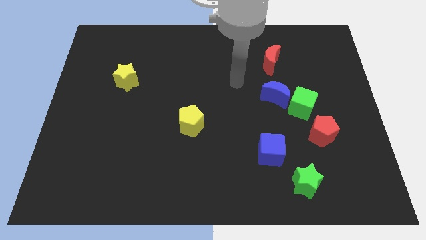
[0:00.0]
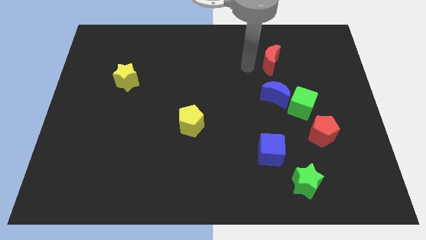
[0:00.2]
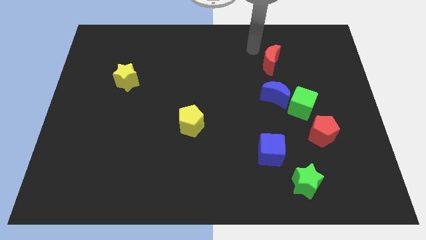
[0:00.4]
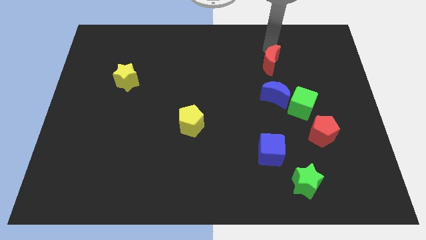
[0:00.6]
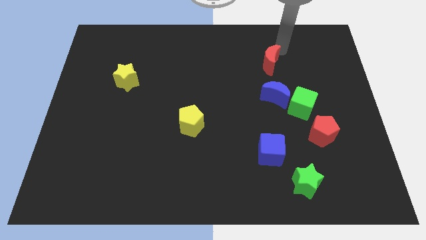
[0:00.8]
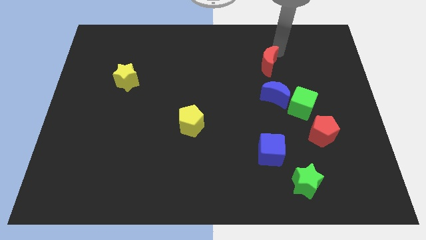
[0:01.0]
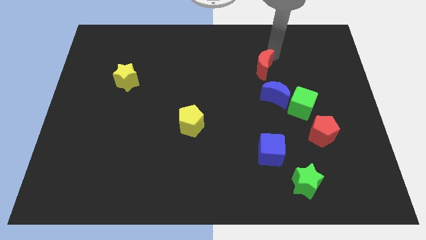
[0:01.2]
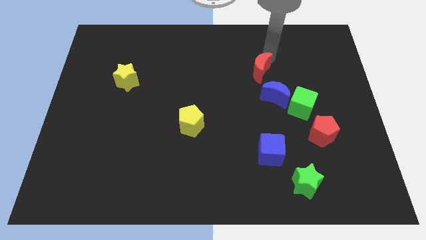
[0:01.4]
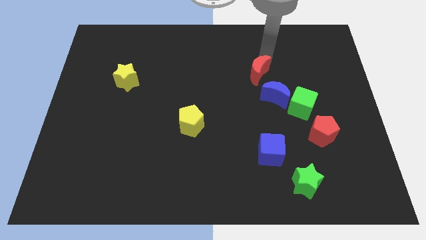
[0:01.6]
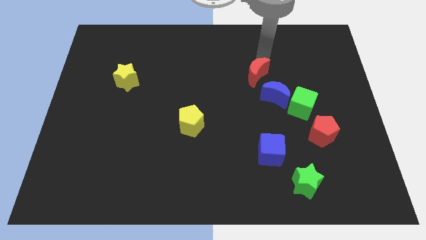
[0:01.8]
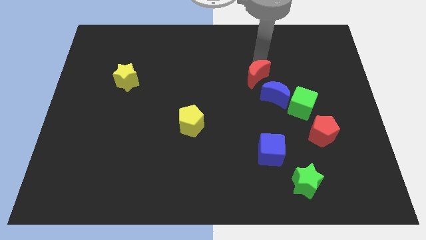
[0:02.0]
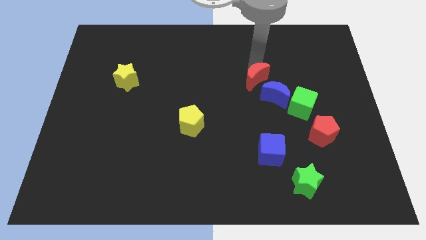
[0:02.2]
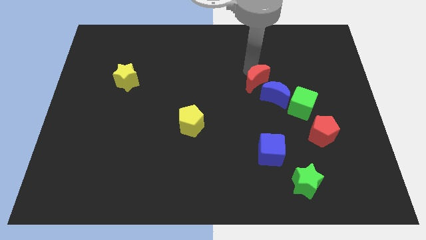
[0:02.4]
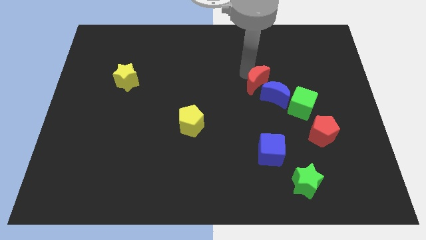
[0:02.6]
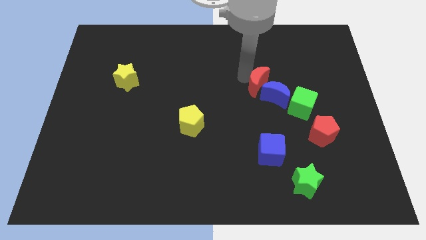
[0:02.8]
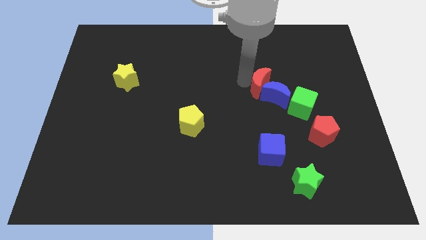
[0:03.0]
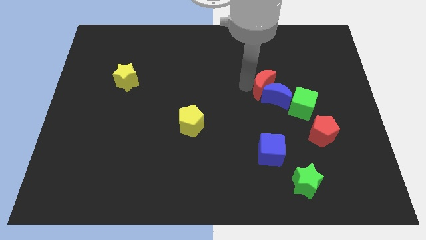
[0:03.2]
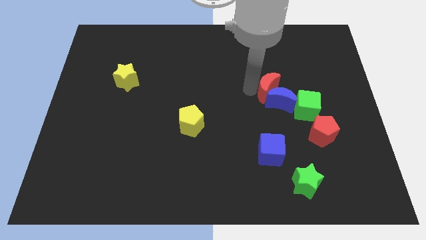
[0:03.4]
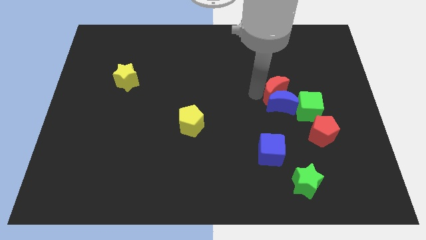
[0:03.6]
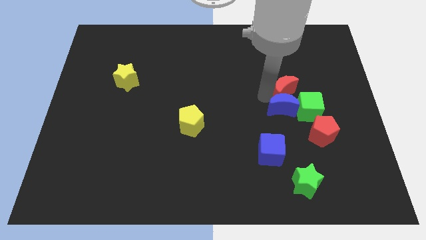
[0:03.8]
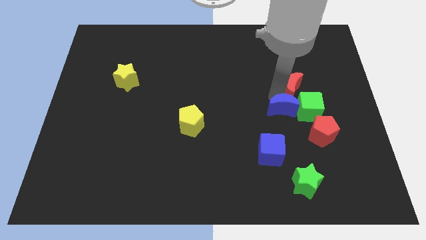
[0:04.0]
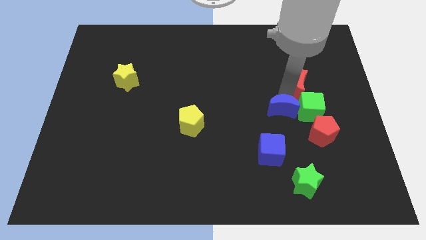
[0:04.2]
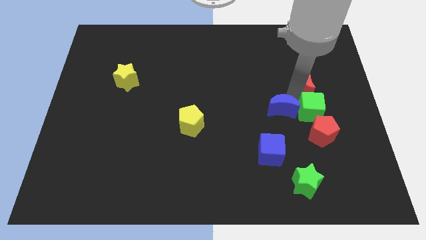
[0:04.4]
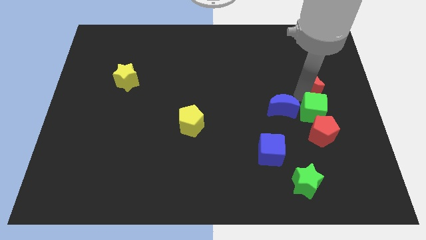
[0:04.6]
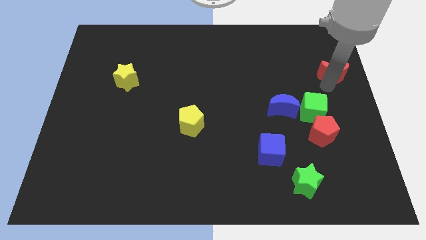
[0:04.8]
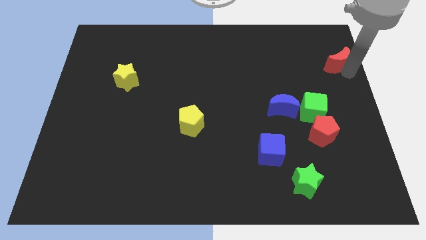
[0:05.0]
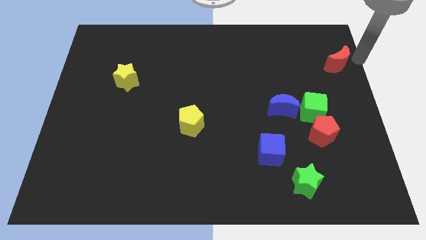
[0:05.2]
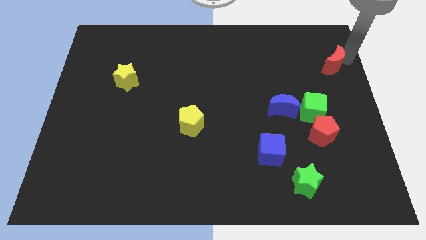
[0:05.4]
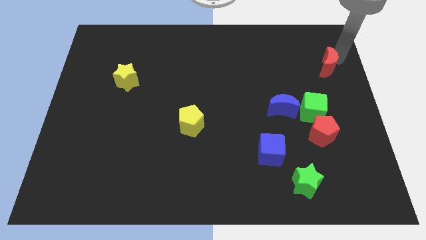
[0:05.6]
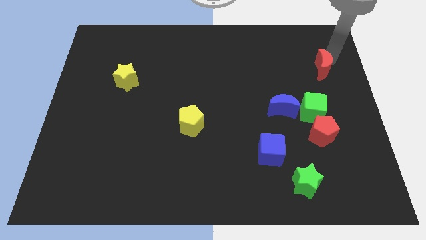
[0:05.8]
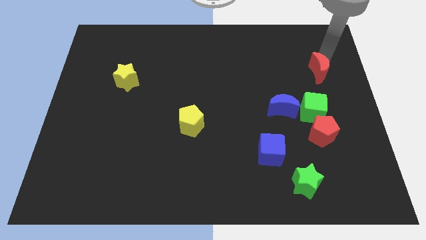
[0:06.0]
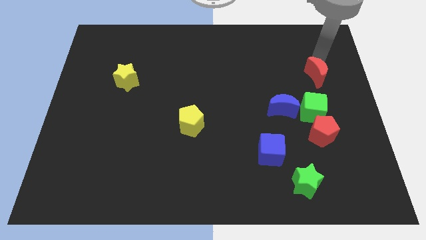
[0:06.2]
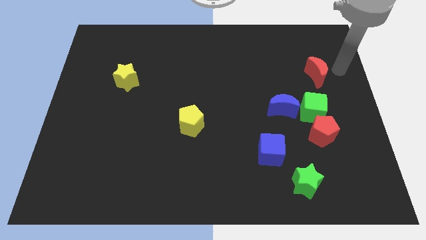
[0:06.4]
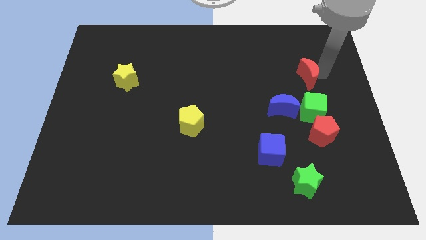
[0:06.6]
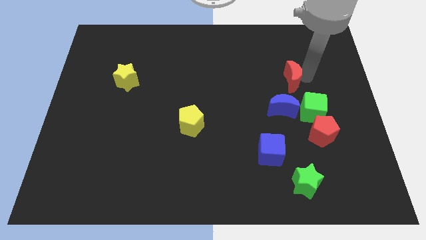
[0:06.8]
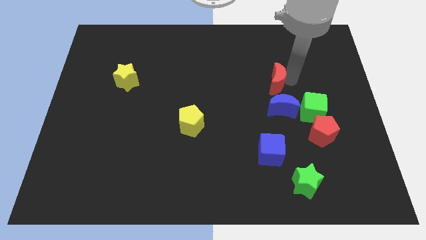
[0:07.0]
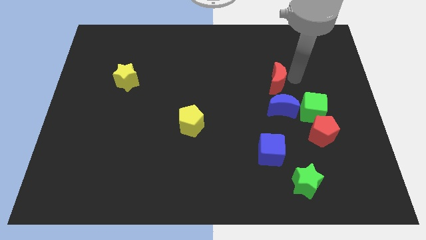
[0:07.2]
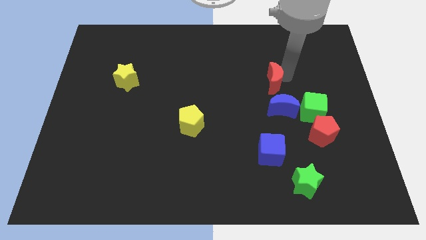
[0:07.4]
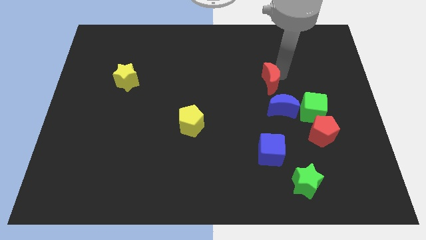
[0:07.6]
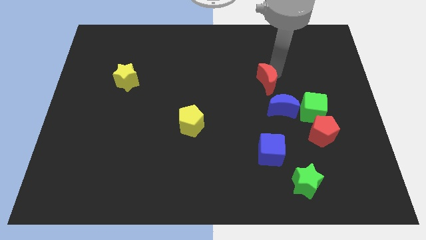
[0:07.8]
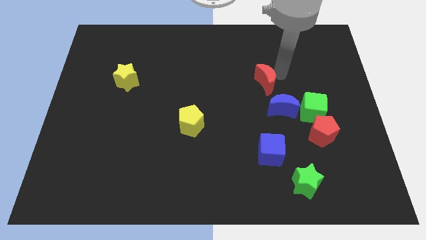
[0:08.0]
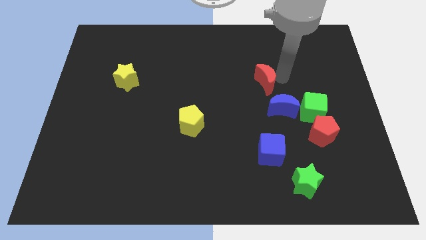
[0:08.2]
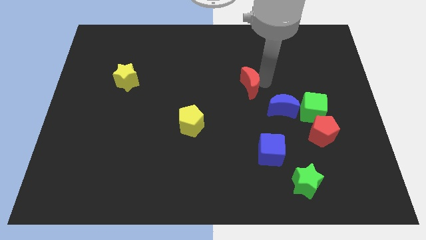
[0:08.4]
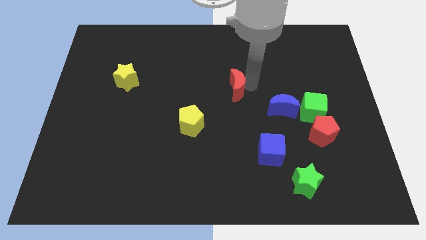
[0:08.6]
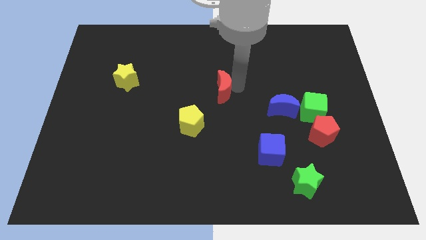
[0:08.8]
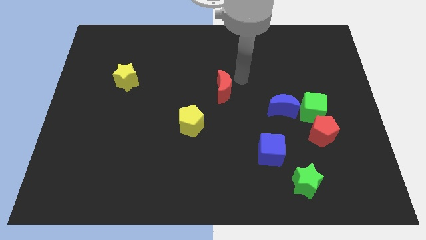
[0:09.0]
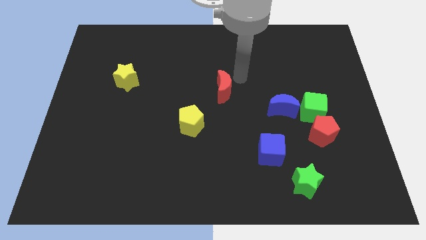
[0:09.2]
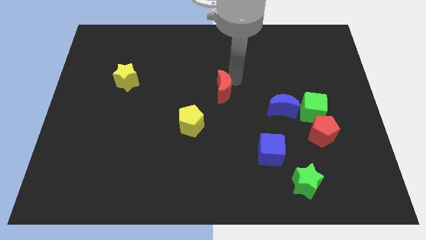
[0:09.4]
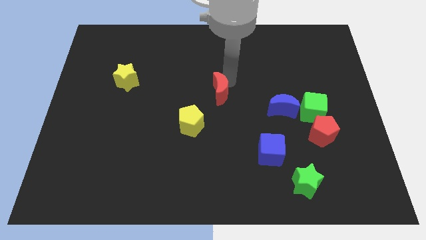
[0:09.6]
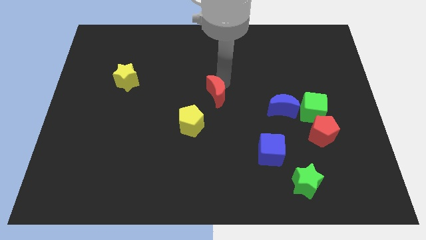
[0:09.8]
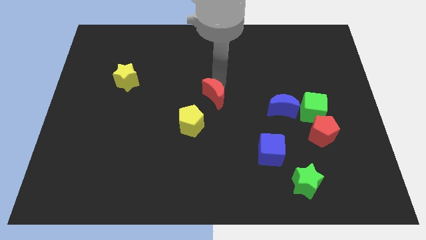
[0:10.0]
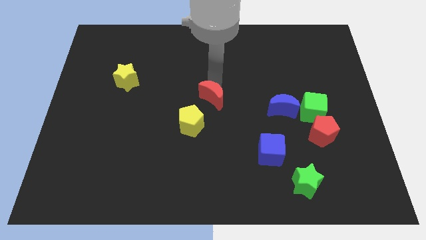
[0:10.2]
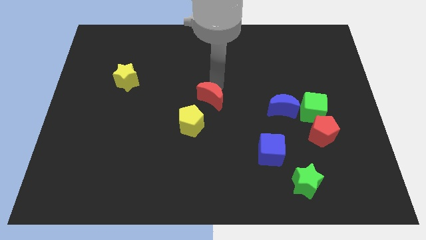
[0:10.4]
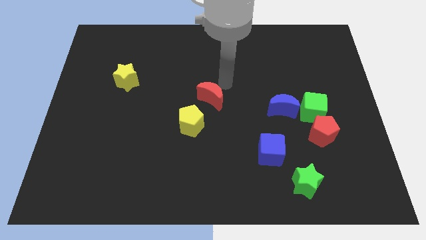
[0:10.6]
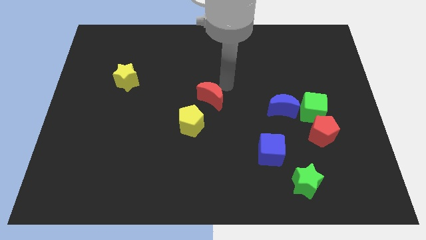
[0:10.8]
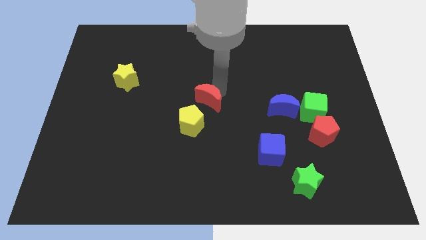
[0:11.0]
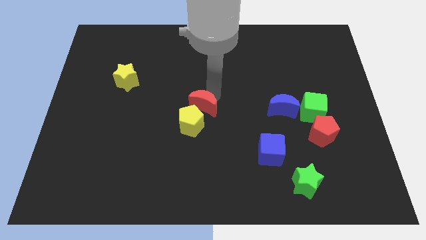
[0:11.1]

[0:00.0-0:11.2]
put the red moon close to the yellow pentagon

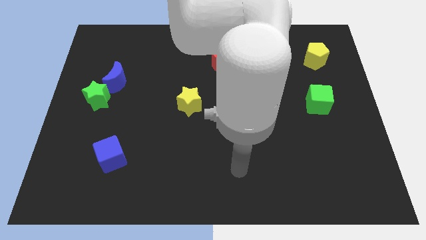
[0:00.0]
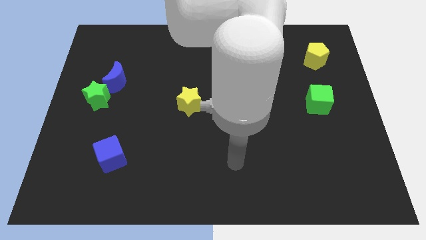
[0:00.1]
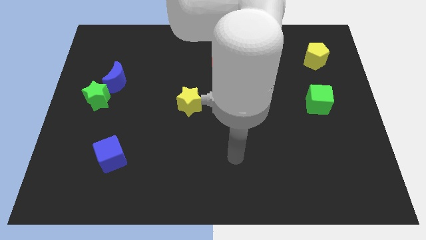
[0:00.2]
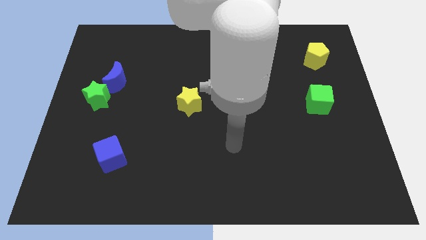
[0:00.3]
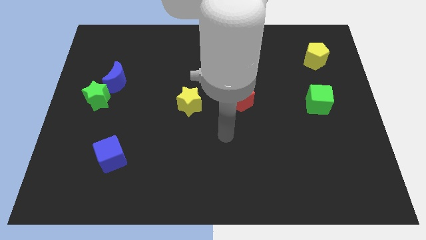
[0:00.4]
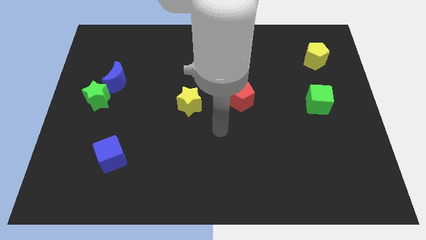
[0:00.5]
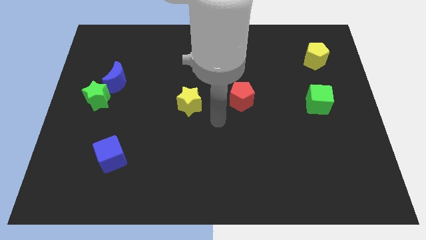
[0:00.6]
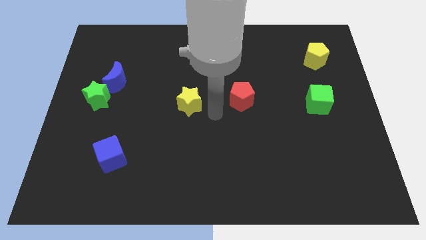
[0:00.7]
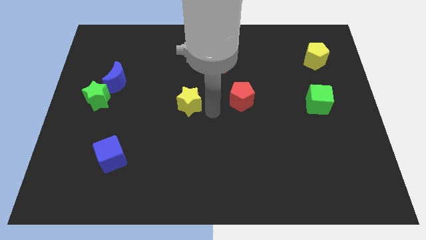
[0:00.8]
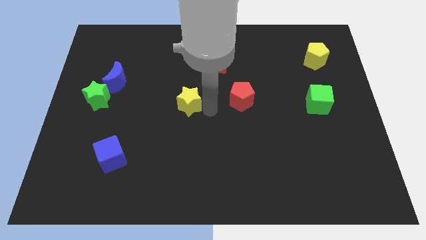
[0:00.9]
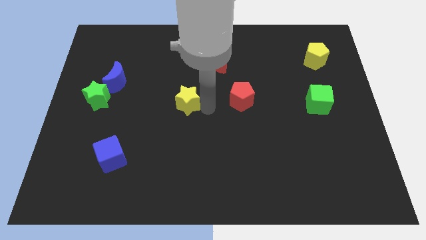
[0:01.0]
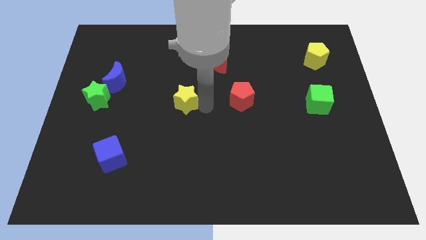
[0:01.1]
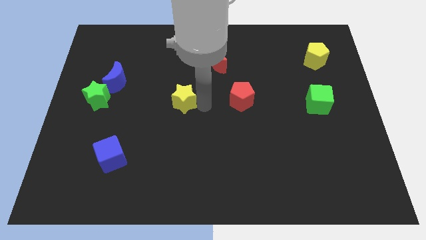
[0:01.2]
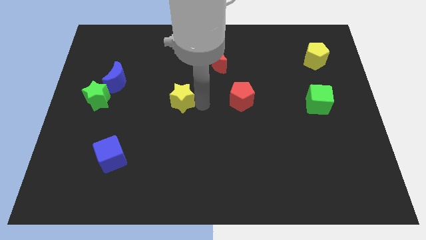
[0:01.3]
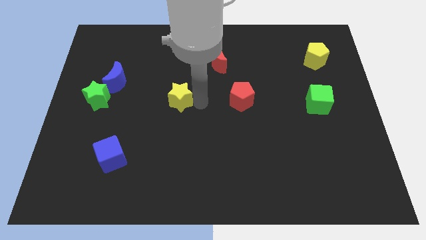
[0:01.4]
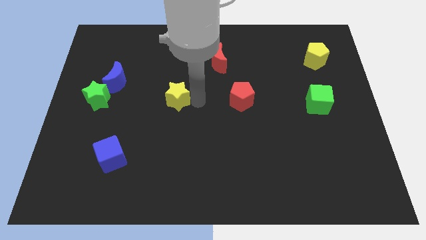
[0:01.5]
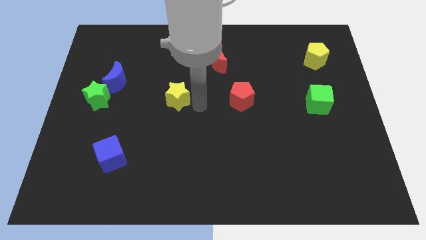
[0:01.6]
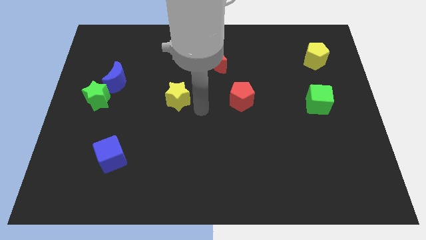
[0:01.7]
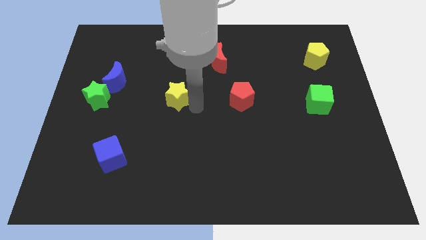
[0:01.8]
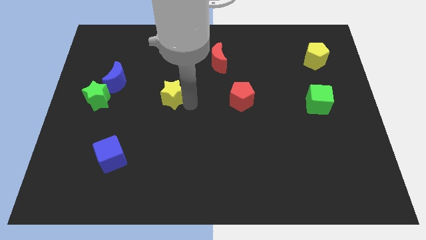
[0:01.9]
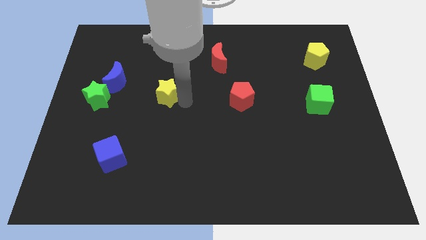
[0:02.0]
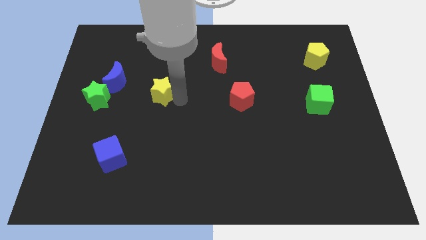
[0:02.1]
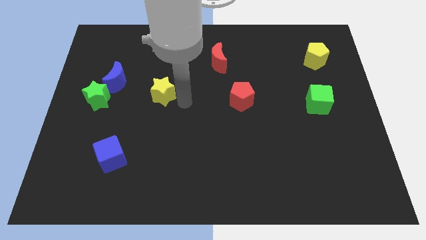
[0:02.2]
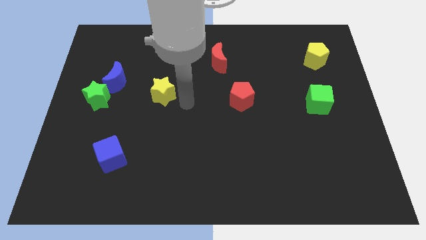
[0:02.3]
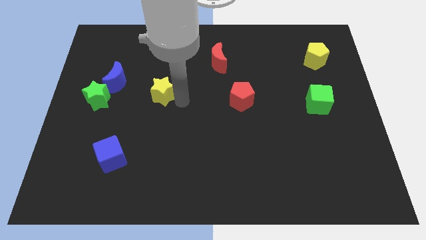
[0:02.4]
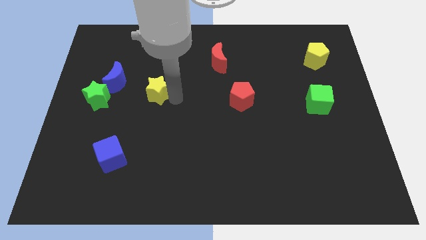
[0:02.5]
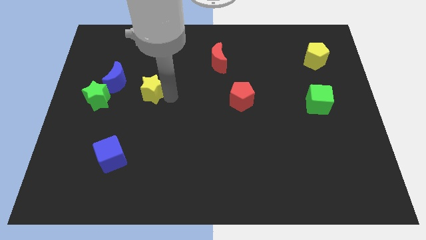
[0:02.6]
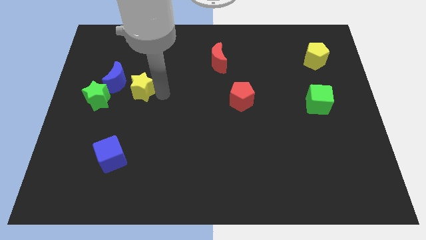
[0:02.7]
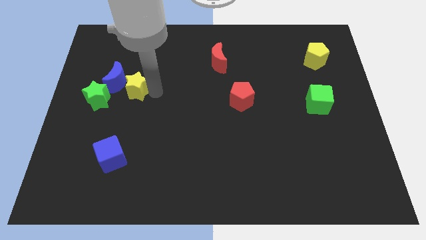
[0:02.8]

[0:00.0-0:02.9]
slide the yellow star close to the blue moon
